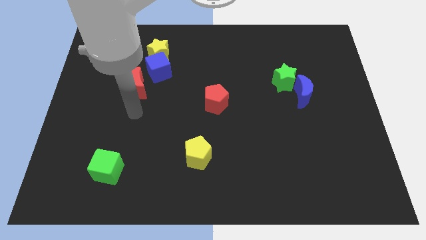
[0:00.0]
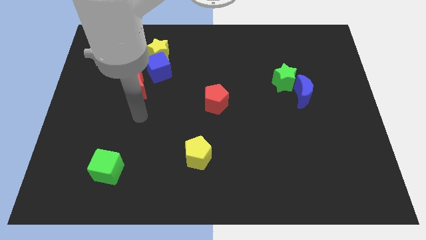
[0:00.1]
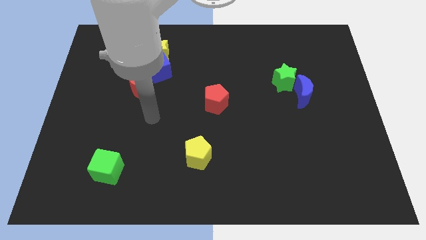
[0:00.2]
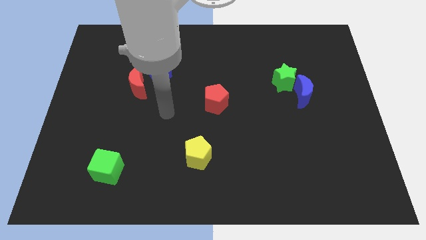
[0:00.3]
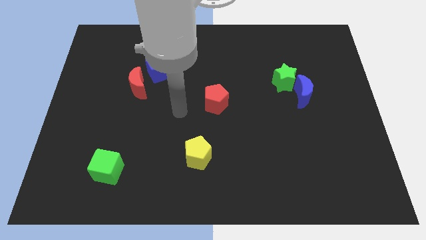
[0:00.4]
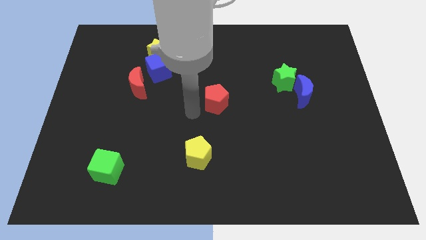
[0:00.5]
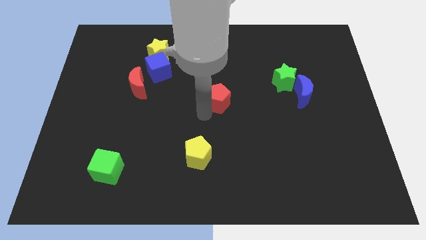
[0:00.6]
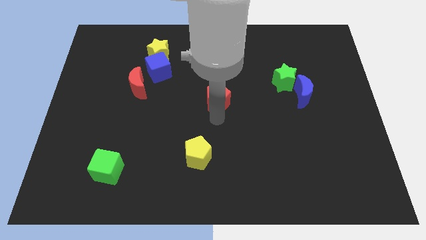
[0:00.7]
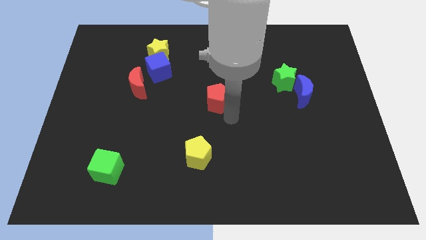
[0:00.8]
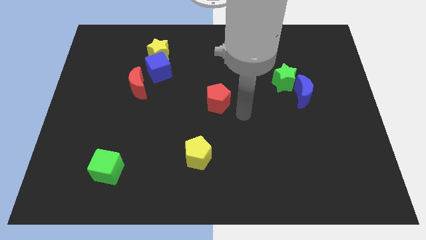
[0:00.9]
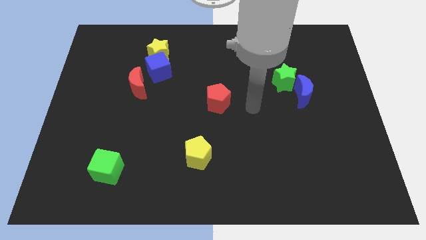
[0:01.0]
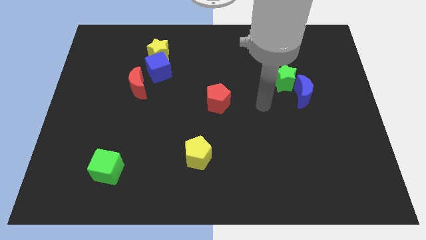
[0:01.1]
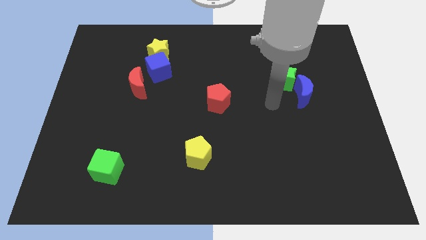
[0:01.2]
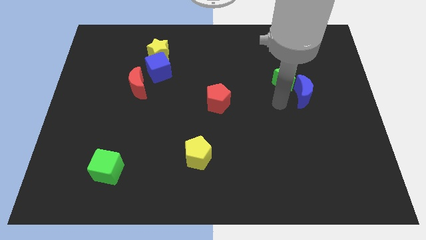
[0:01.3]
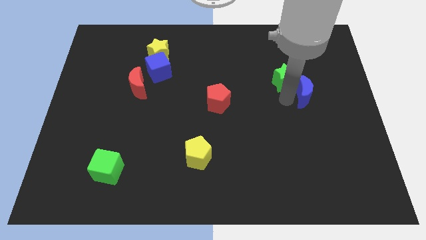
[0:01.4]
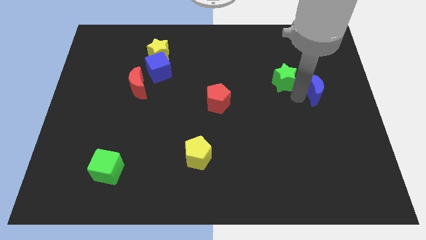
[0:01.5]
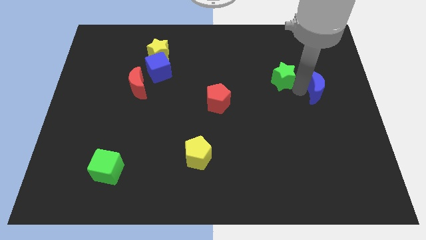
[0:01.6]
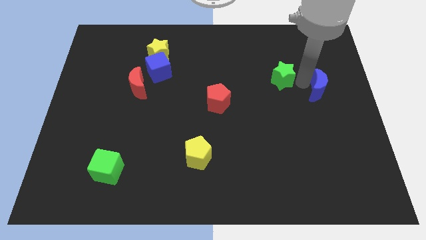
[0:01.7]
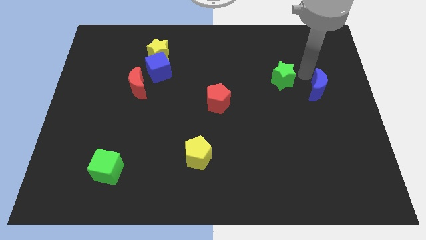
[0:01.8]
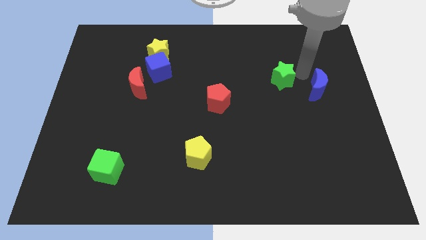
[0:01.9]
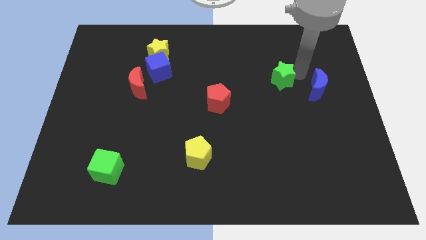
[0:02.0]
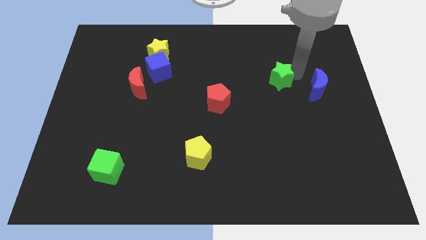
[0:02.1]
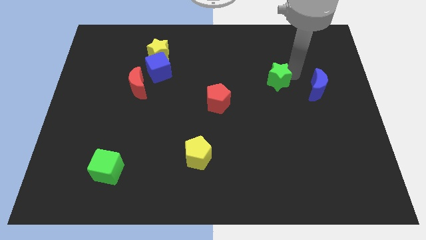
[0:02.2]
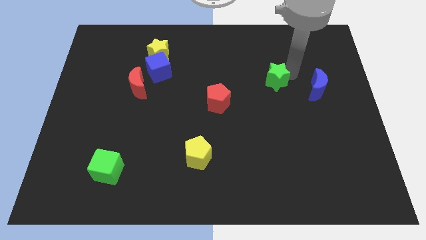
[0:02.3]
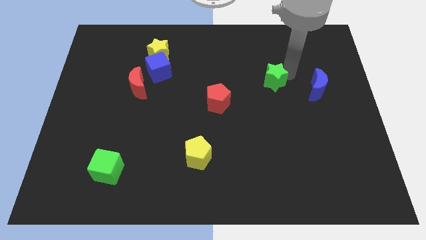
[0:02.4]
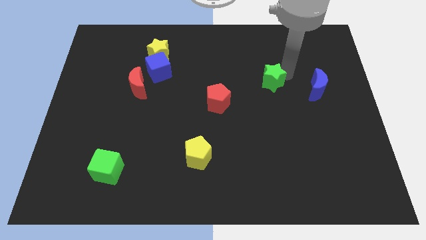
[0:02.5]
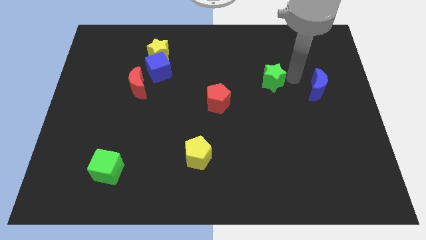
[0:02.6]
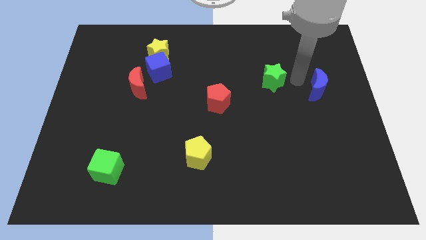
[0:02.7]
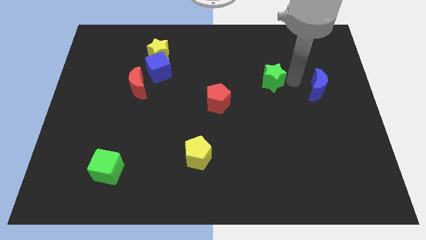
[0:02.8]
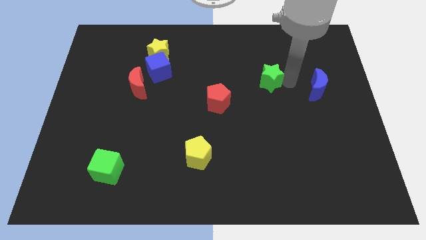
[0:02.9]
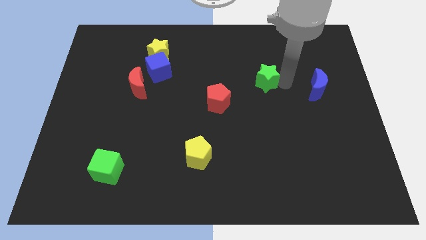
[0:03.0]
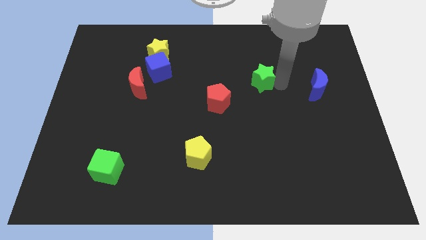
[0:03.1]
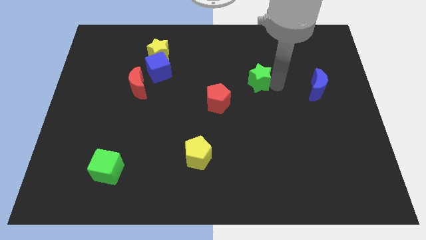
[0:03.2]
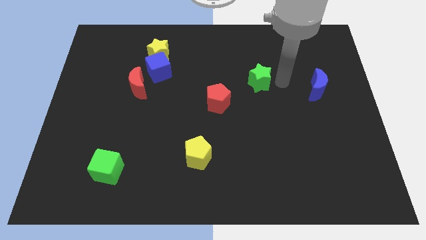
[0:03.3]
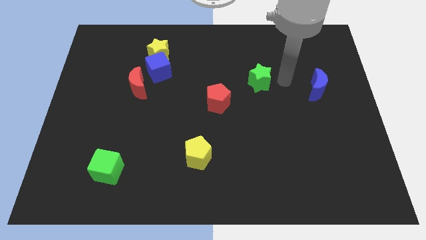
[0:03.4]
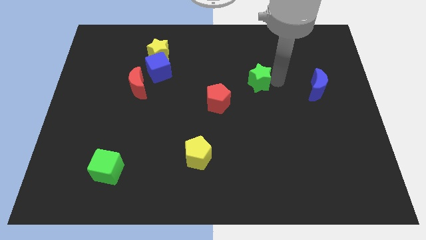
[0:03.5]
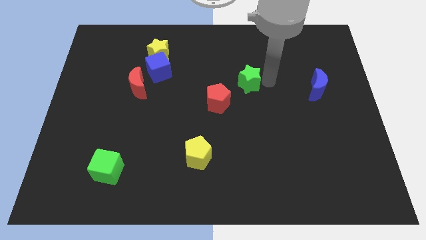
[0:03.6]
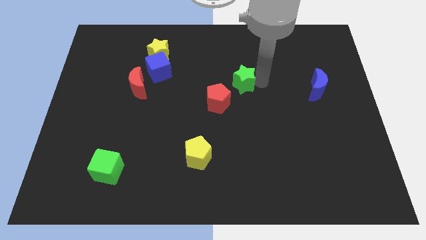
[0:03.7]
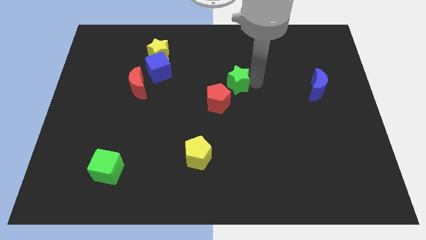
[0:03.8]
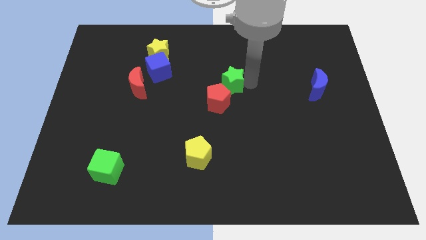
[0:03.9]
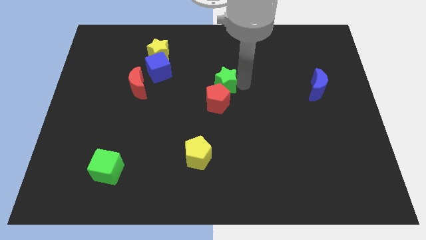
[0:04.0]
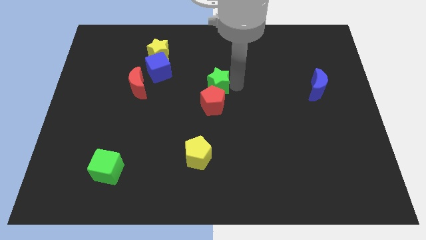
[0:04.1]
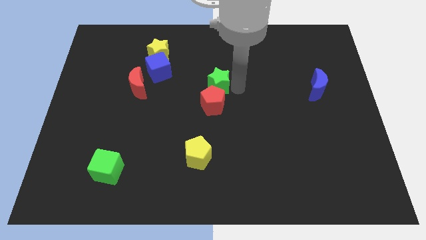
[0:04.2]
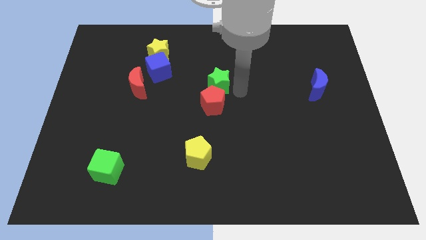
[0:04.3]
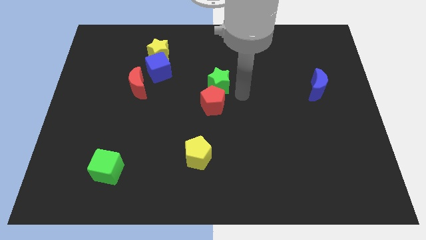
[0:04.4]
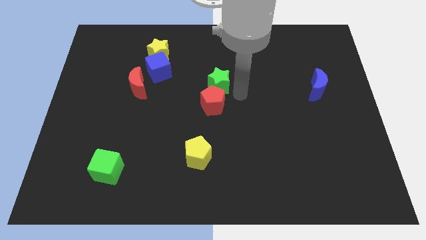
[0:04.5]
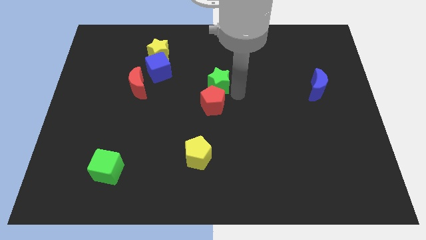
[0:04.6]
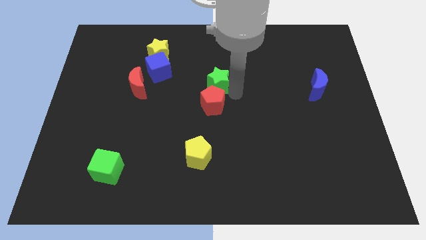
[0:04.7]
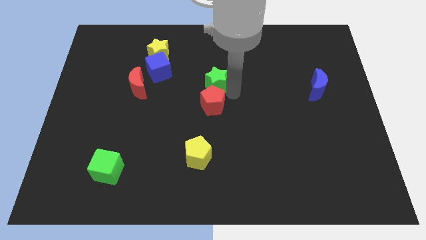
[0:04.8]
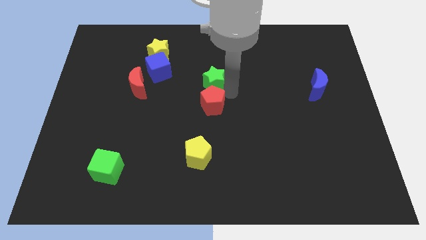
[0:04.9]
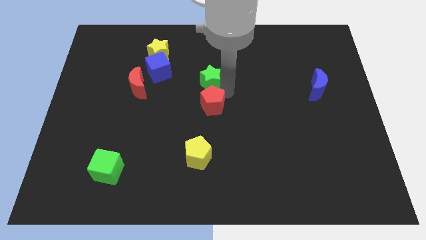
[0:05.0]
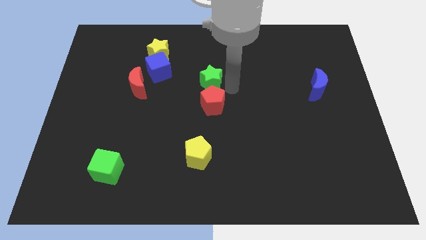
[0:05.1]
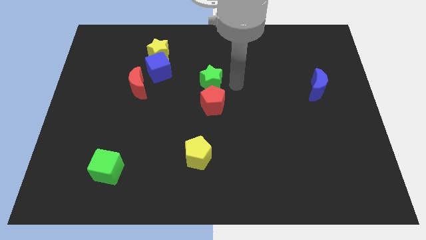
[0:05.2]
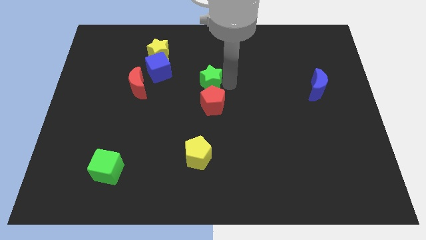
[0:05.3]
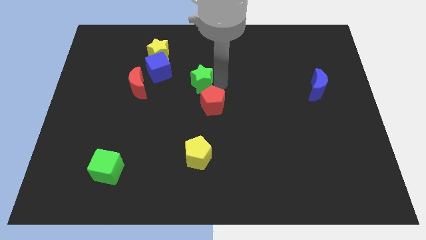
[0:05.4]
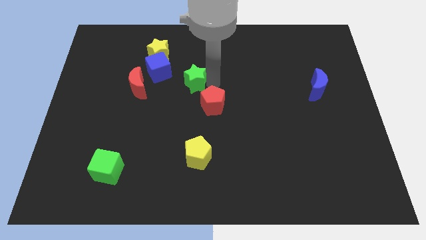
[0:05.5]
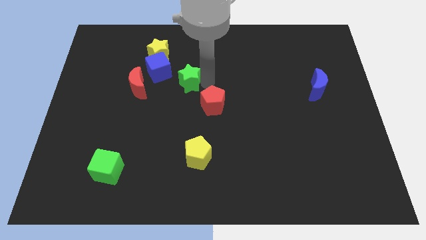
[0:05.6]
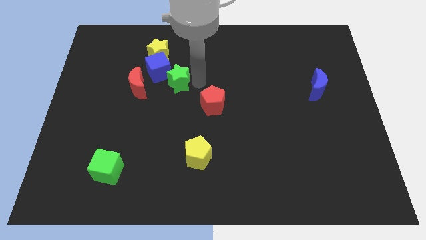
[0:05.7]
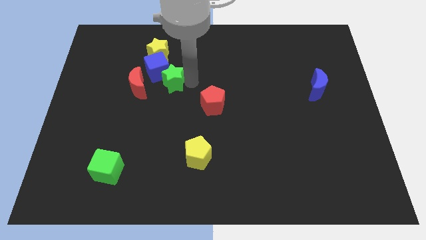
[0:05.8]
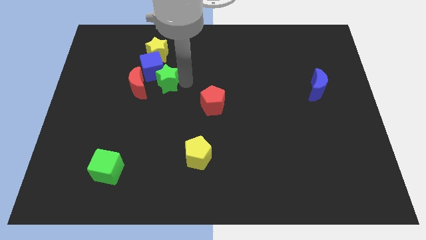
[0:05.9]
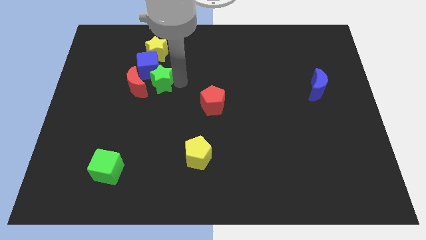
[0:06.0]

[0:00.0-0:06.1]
put the green star towards the red moon
